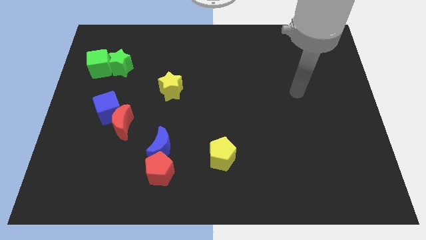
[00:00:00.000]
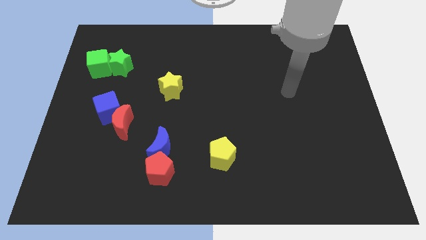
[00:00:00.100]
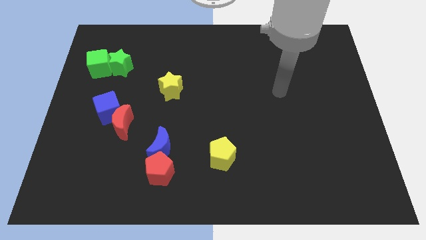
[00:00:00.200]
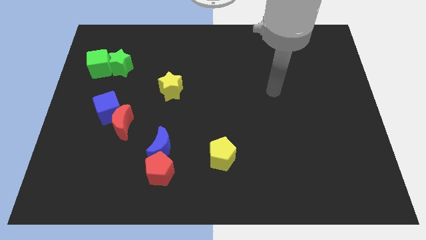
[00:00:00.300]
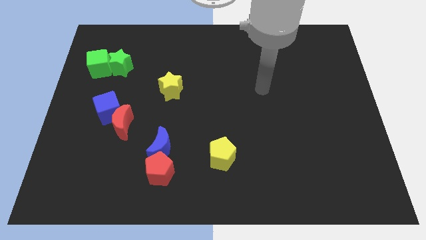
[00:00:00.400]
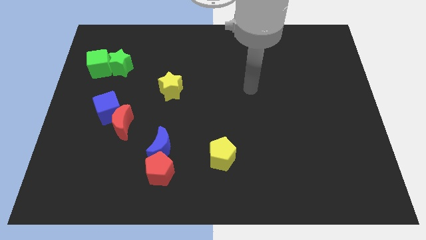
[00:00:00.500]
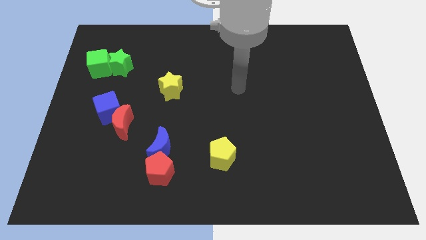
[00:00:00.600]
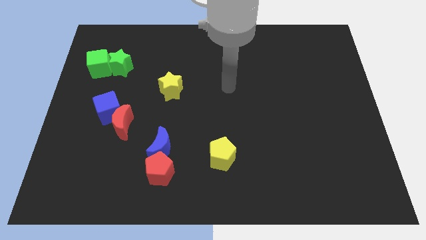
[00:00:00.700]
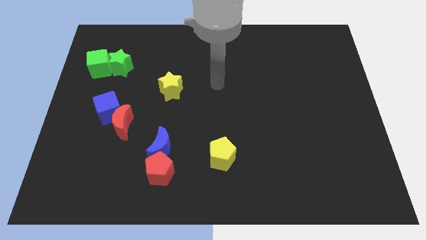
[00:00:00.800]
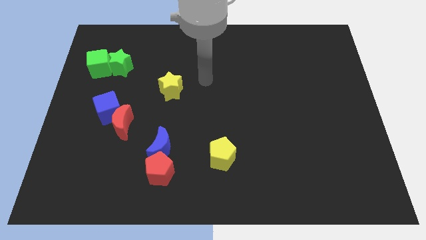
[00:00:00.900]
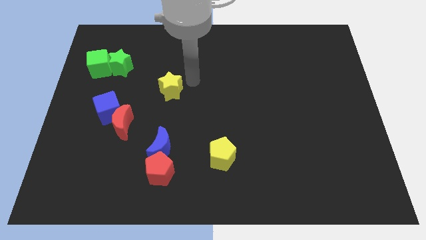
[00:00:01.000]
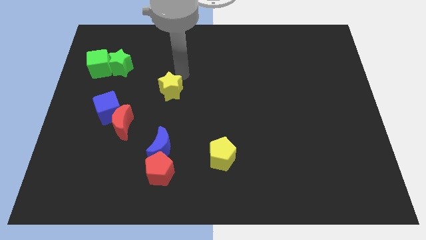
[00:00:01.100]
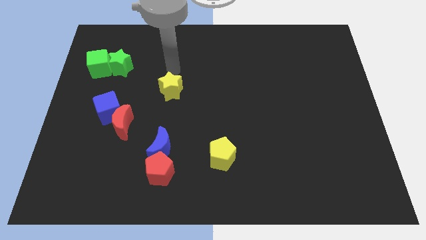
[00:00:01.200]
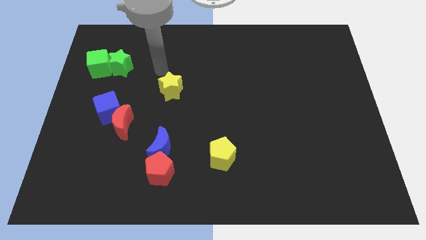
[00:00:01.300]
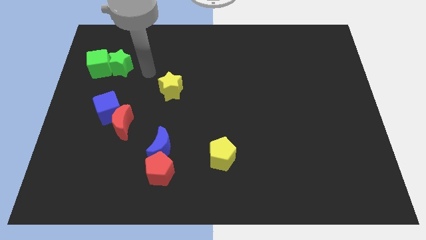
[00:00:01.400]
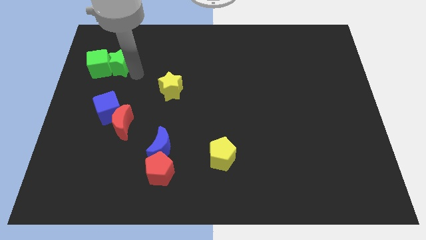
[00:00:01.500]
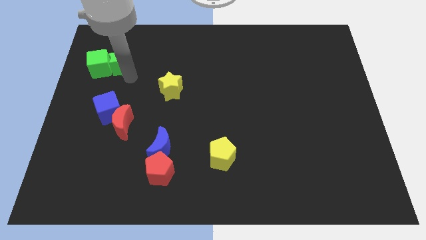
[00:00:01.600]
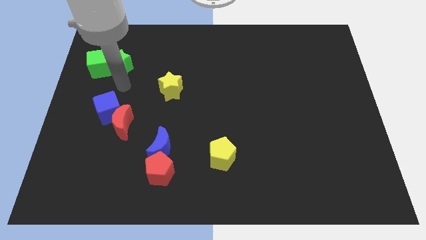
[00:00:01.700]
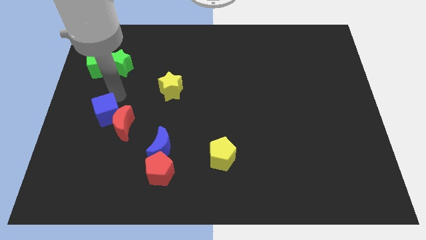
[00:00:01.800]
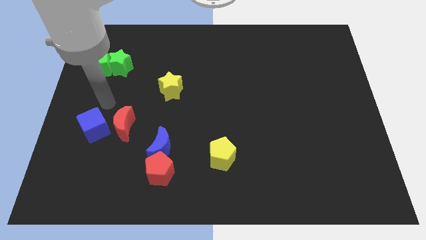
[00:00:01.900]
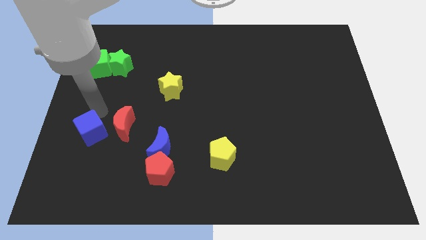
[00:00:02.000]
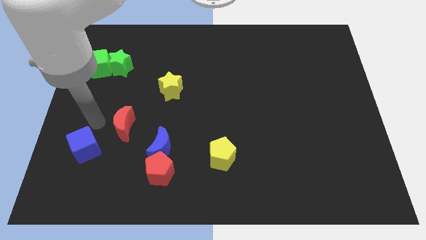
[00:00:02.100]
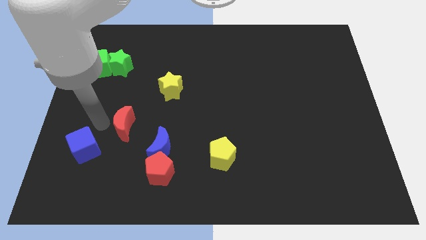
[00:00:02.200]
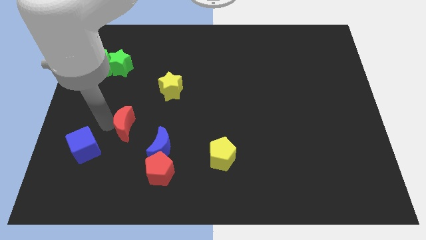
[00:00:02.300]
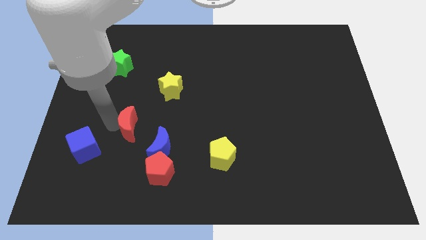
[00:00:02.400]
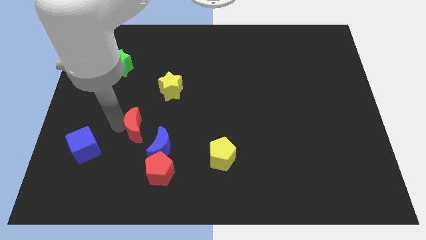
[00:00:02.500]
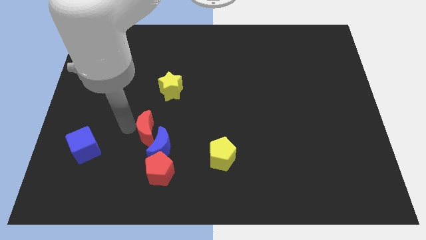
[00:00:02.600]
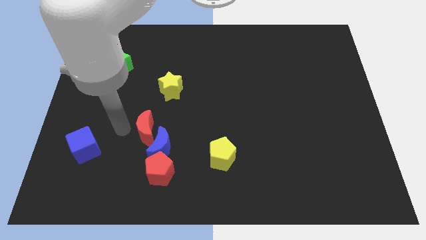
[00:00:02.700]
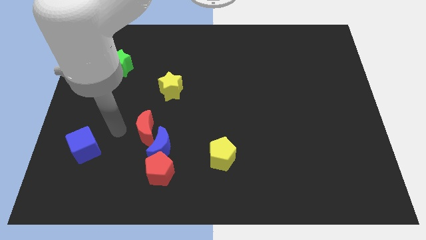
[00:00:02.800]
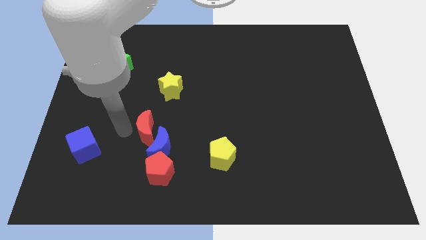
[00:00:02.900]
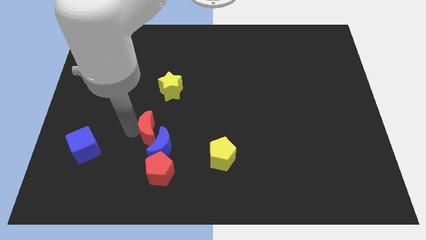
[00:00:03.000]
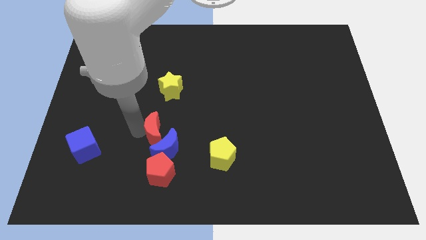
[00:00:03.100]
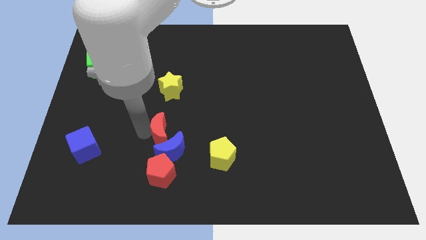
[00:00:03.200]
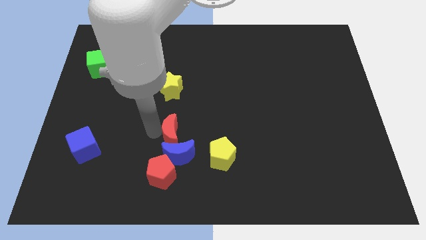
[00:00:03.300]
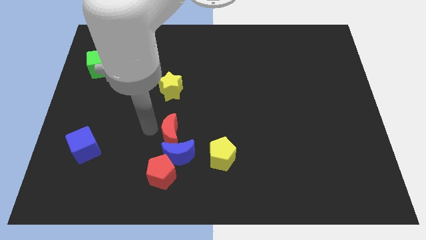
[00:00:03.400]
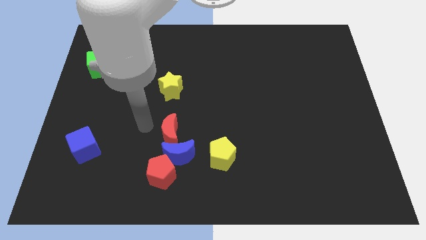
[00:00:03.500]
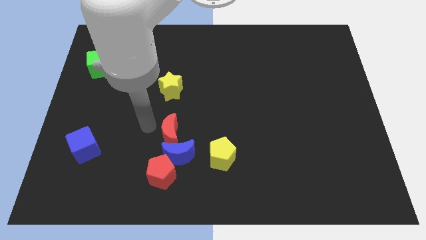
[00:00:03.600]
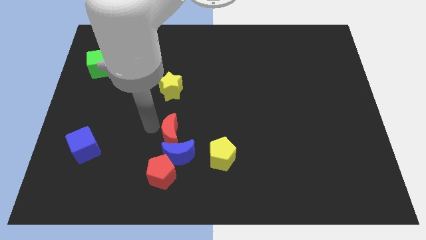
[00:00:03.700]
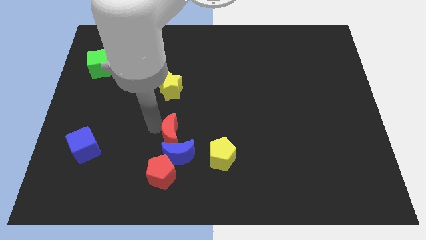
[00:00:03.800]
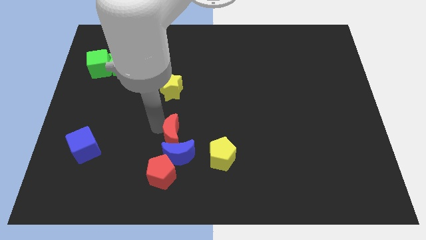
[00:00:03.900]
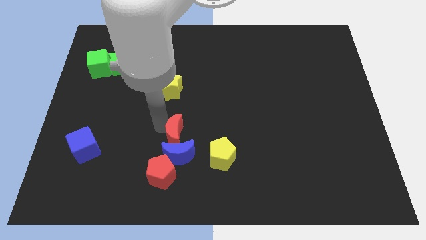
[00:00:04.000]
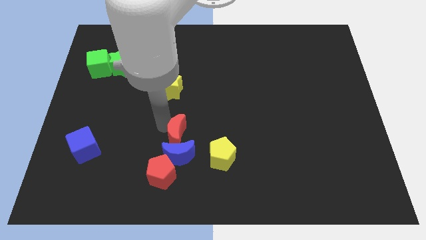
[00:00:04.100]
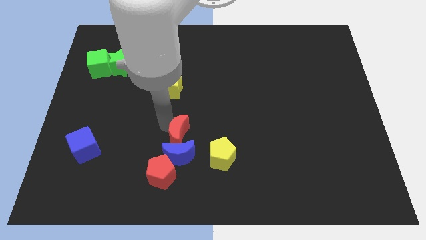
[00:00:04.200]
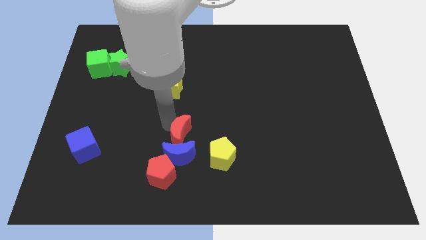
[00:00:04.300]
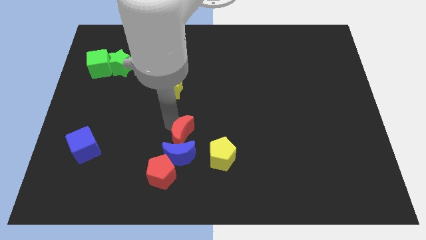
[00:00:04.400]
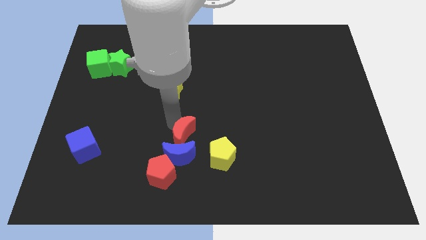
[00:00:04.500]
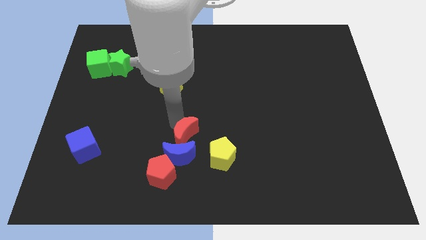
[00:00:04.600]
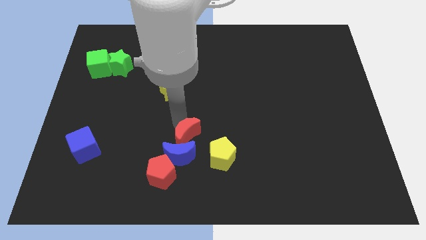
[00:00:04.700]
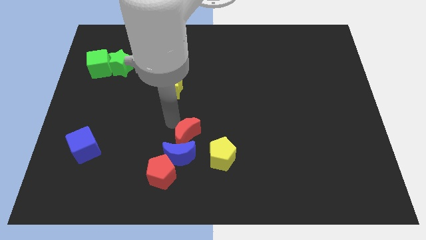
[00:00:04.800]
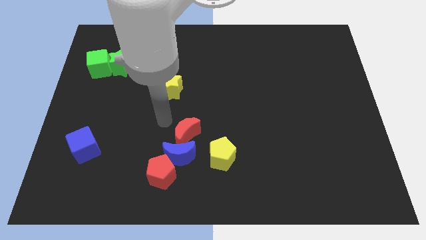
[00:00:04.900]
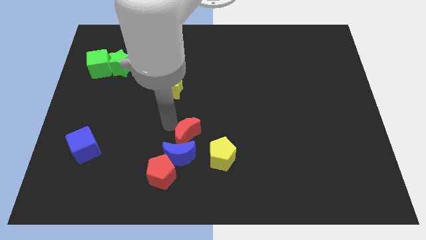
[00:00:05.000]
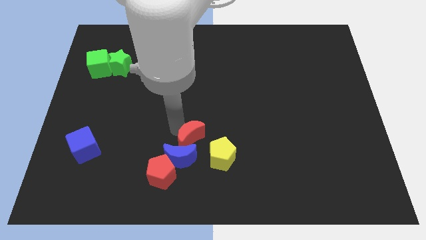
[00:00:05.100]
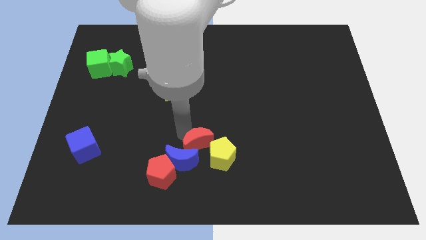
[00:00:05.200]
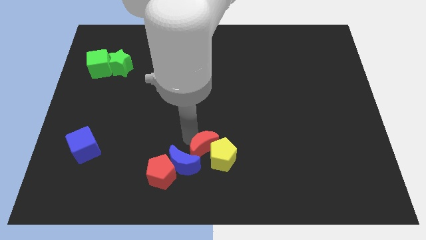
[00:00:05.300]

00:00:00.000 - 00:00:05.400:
push the red moon close to the yellow pentagon

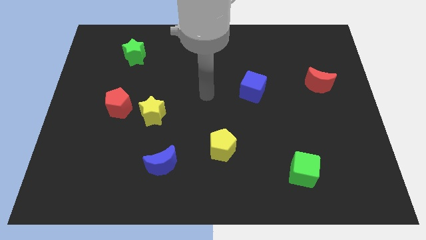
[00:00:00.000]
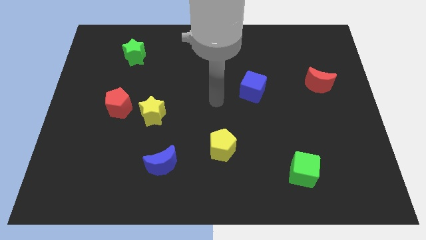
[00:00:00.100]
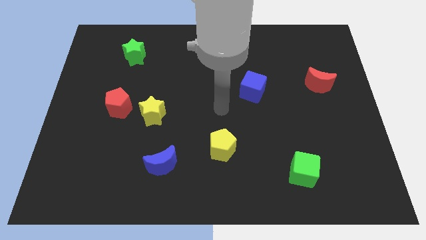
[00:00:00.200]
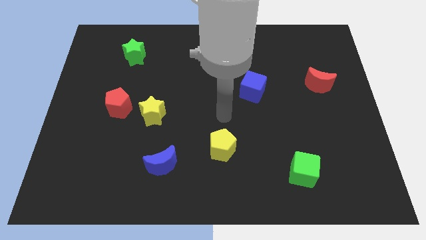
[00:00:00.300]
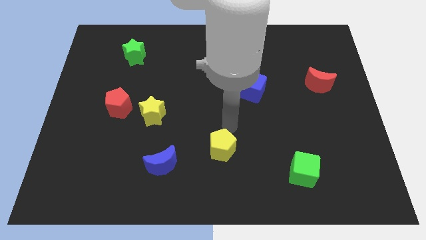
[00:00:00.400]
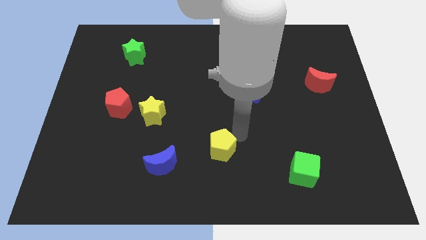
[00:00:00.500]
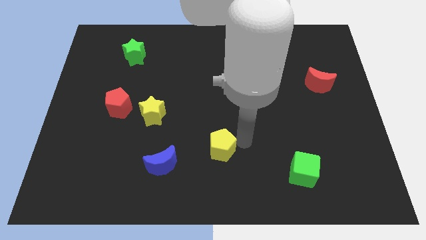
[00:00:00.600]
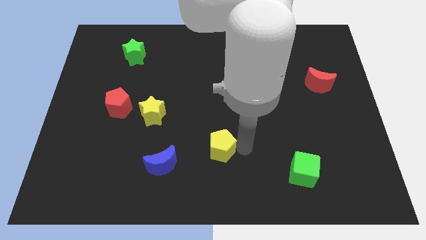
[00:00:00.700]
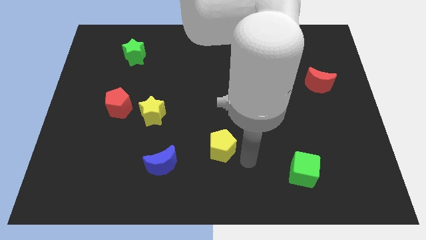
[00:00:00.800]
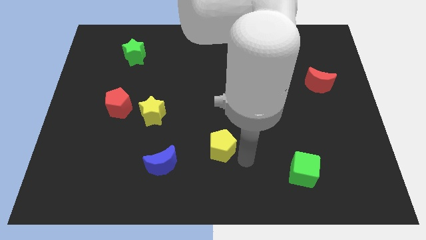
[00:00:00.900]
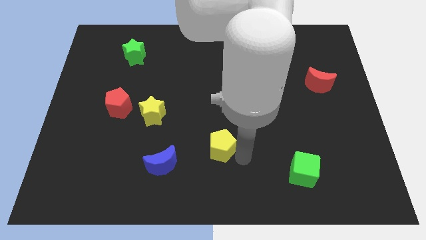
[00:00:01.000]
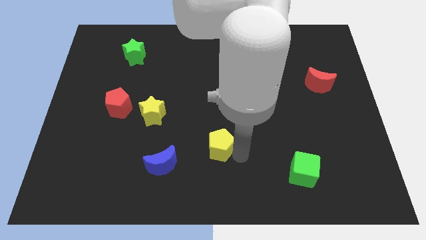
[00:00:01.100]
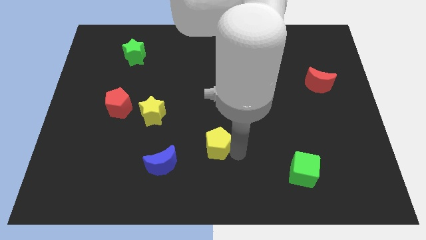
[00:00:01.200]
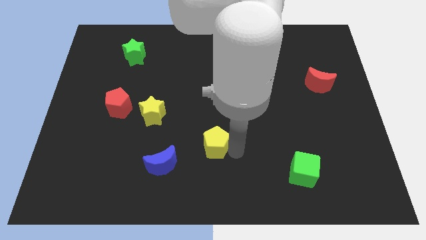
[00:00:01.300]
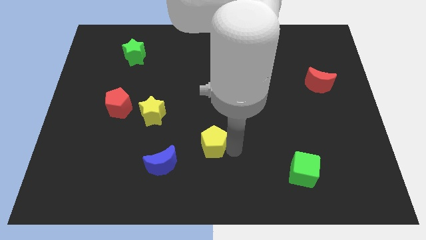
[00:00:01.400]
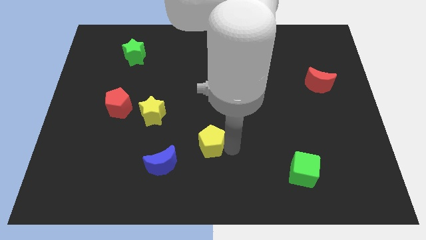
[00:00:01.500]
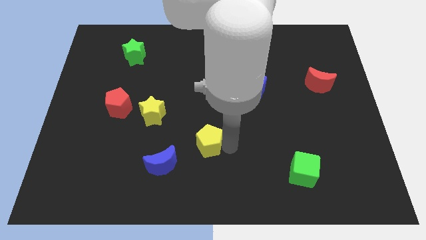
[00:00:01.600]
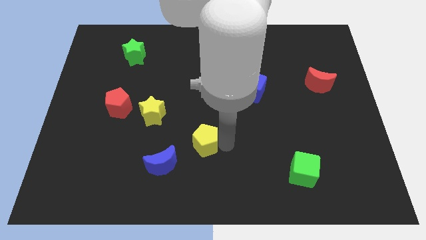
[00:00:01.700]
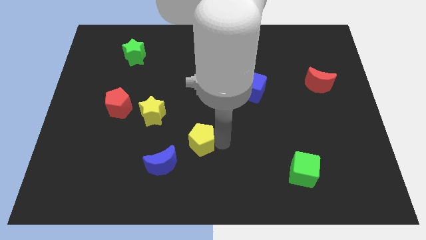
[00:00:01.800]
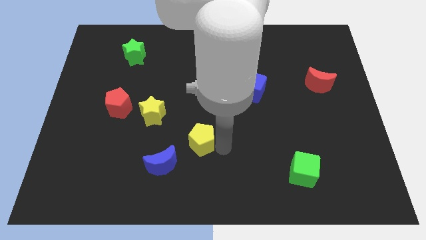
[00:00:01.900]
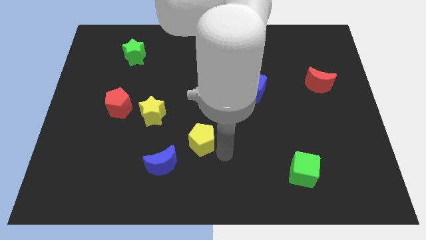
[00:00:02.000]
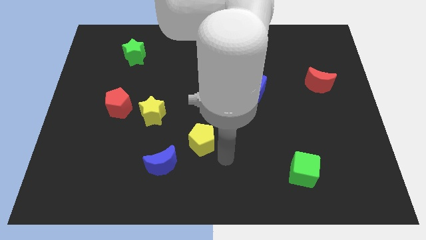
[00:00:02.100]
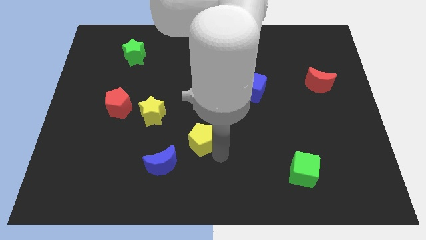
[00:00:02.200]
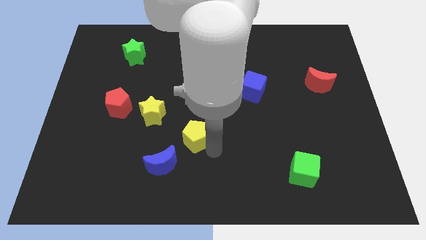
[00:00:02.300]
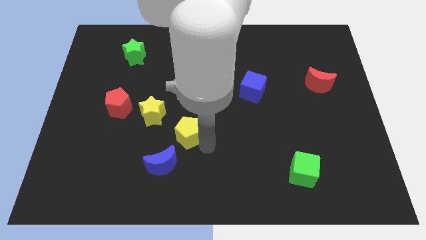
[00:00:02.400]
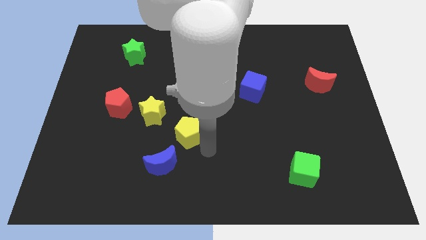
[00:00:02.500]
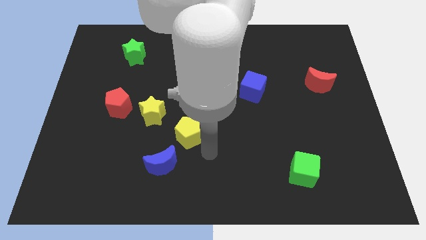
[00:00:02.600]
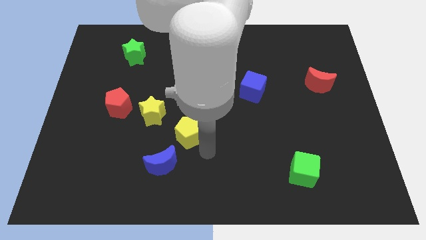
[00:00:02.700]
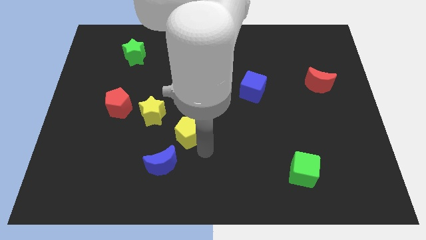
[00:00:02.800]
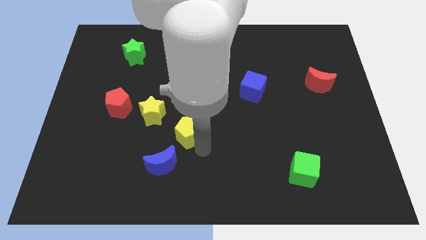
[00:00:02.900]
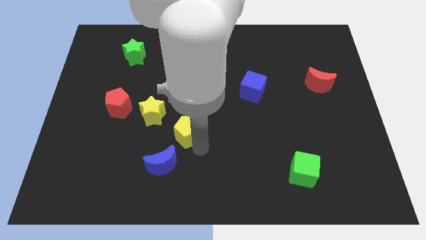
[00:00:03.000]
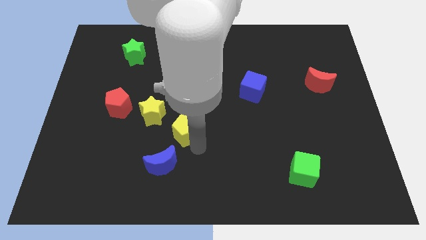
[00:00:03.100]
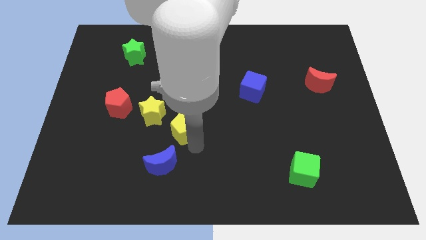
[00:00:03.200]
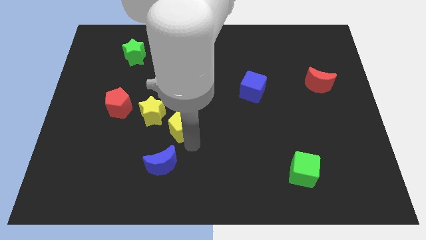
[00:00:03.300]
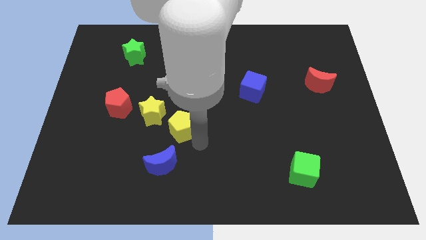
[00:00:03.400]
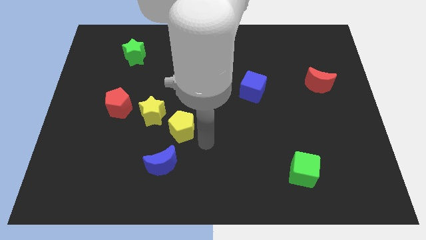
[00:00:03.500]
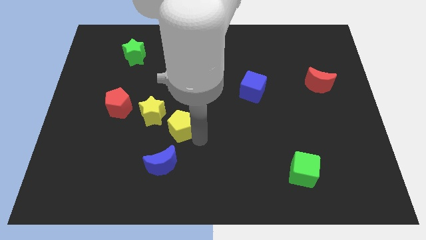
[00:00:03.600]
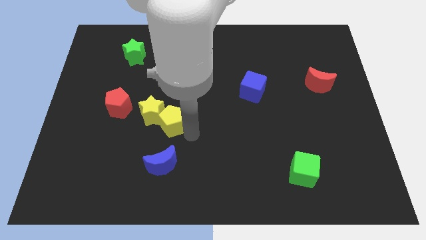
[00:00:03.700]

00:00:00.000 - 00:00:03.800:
push the yellow pentagon close to the yellow star
